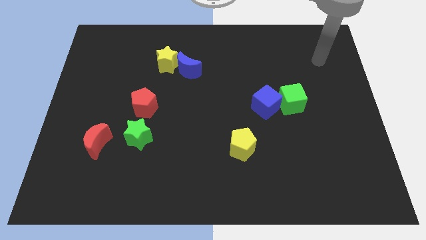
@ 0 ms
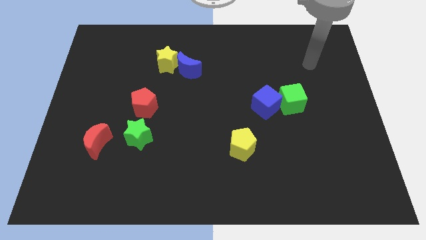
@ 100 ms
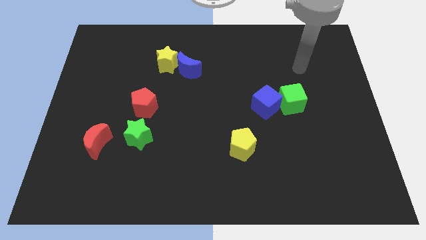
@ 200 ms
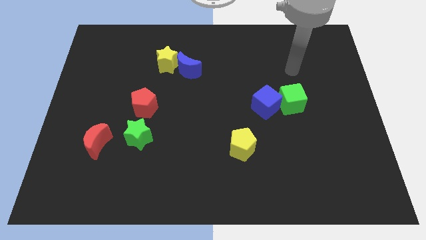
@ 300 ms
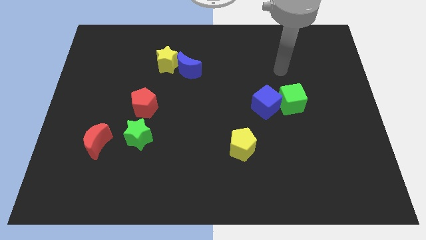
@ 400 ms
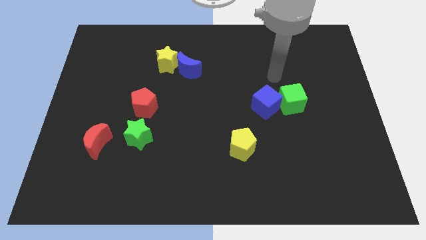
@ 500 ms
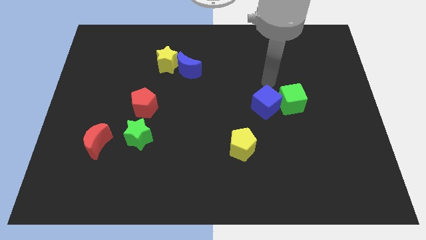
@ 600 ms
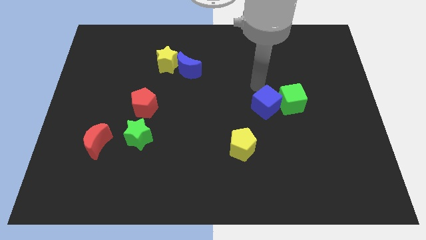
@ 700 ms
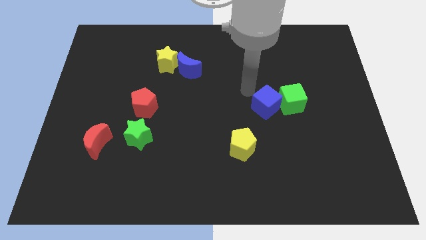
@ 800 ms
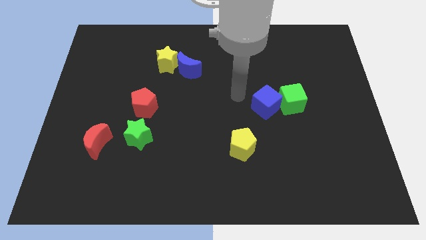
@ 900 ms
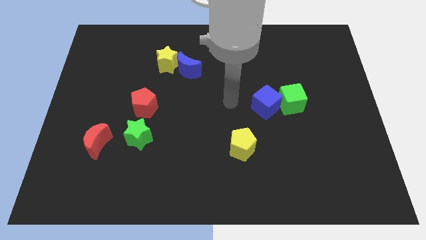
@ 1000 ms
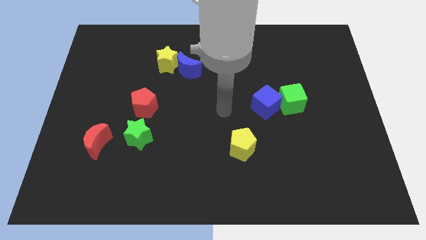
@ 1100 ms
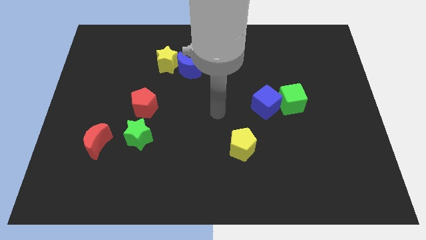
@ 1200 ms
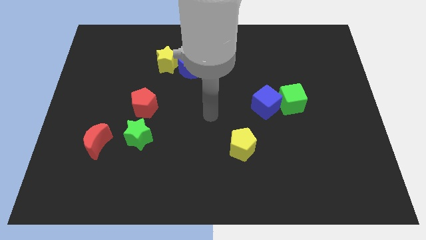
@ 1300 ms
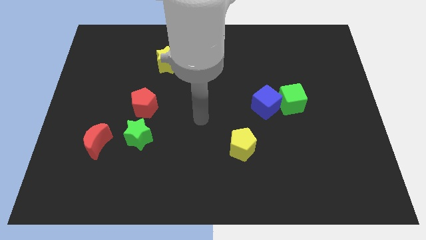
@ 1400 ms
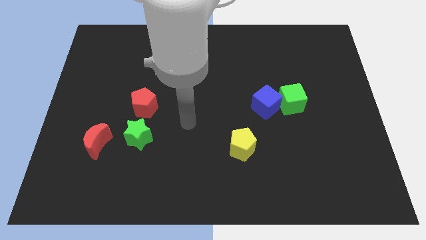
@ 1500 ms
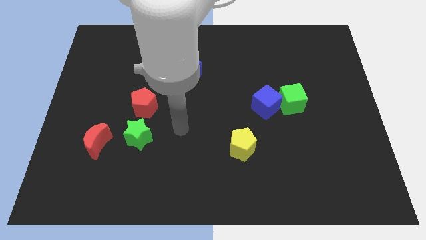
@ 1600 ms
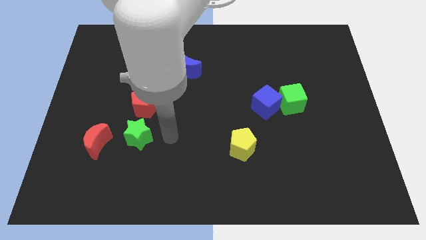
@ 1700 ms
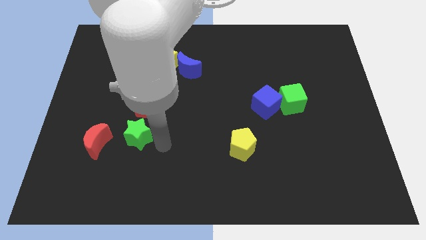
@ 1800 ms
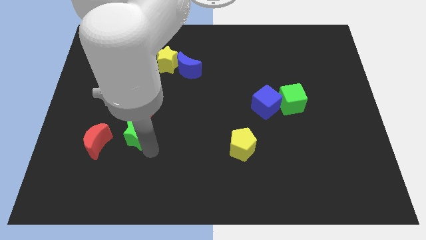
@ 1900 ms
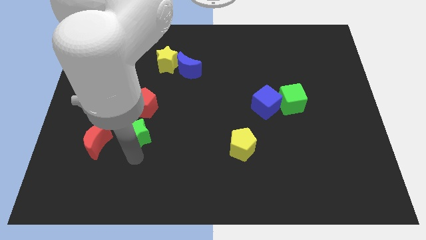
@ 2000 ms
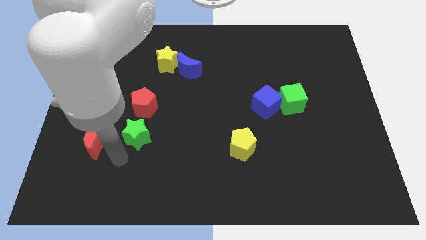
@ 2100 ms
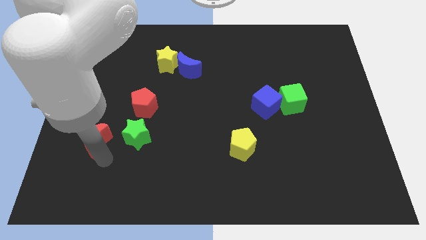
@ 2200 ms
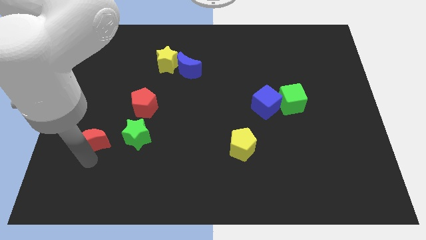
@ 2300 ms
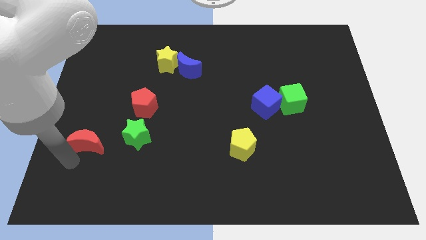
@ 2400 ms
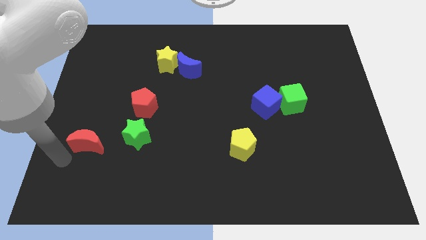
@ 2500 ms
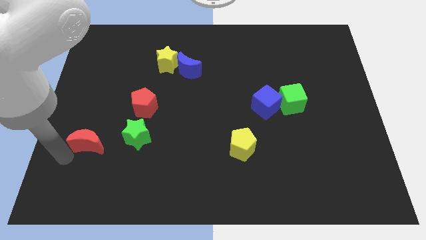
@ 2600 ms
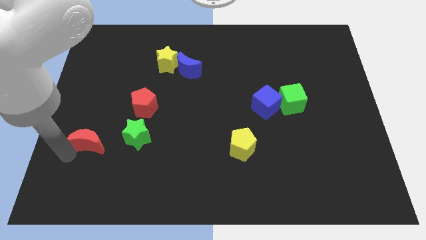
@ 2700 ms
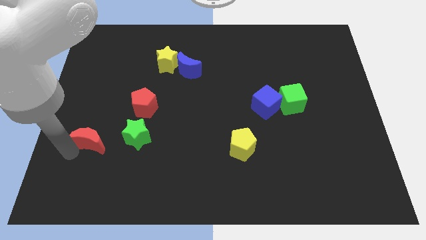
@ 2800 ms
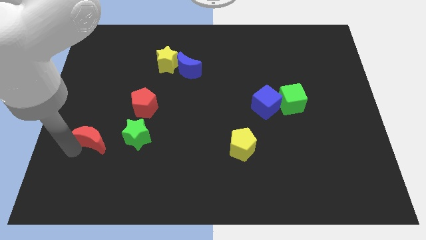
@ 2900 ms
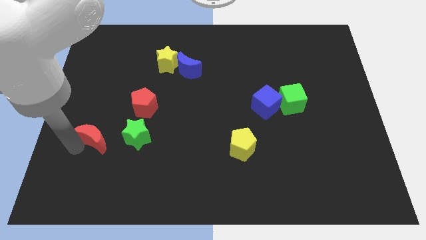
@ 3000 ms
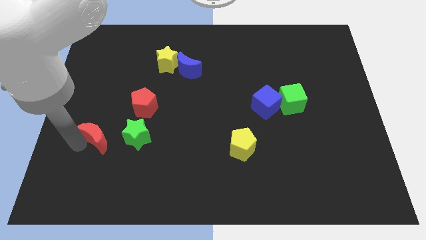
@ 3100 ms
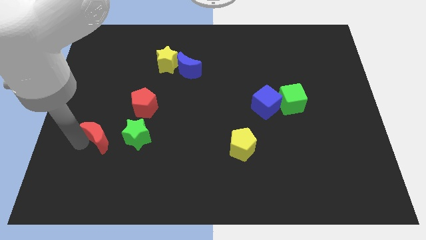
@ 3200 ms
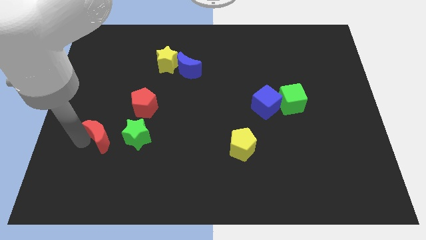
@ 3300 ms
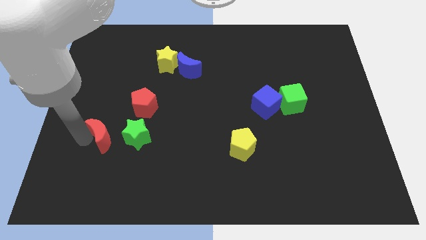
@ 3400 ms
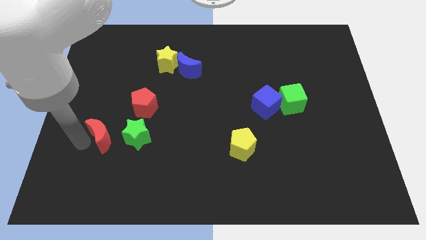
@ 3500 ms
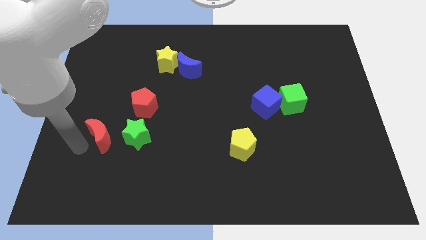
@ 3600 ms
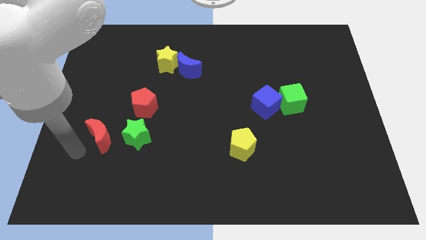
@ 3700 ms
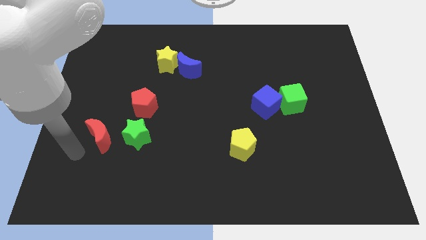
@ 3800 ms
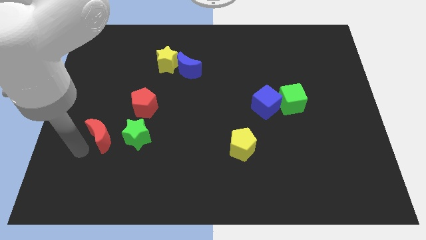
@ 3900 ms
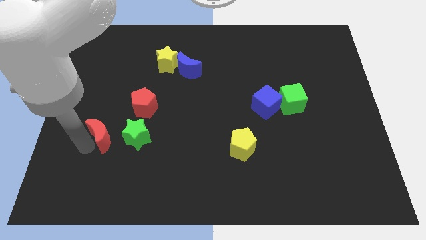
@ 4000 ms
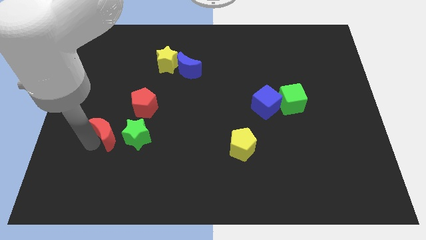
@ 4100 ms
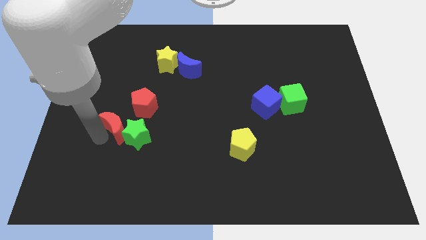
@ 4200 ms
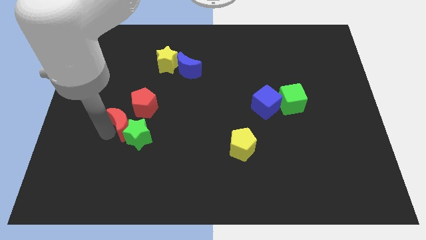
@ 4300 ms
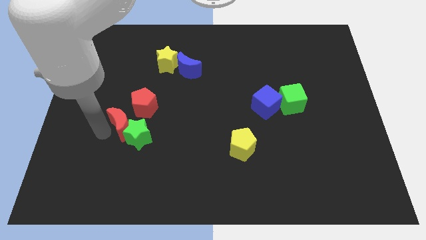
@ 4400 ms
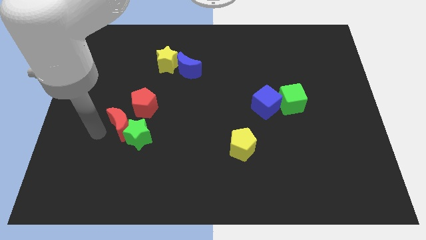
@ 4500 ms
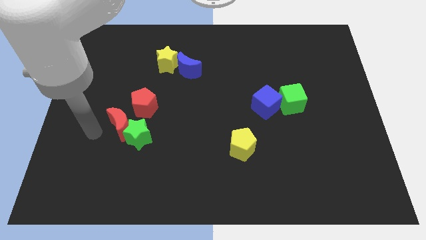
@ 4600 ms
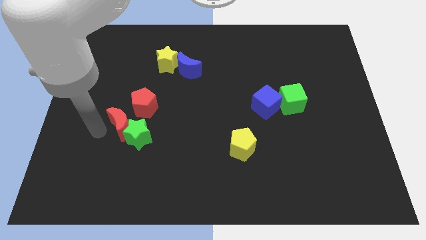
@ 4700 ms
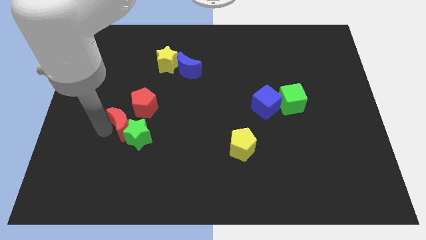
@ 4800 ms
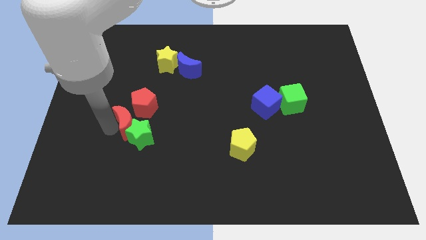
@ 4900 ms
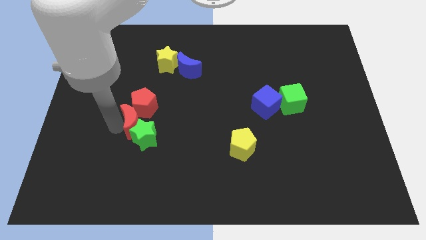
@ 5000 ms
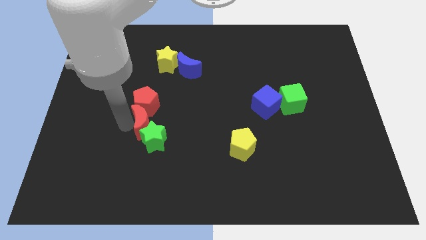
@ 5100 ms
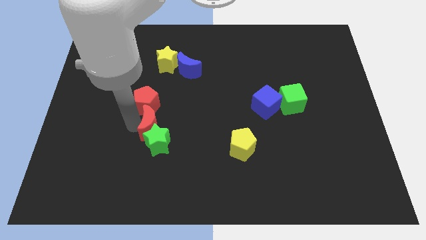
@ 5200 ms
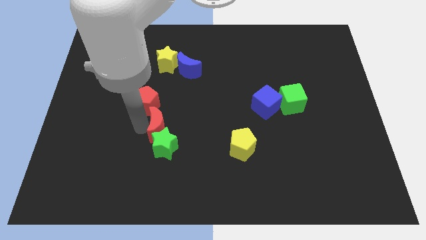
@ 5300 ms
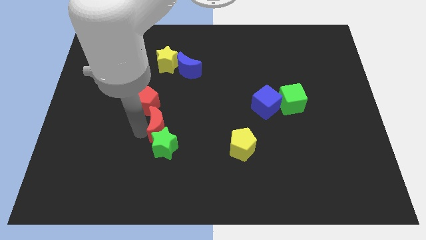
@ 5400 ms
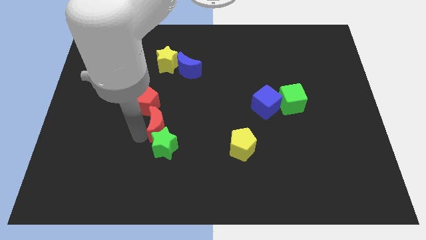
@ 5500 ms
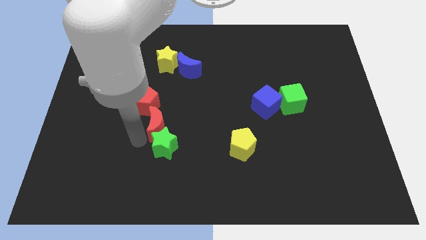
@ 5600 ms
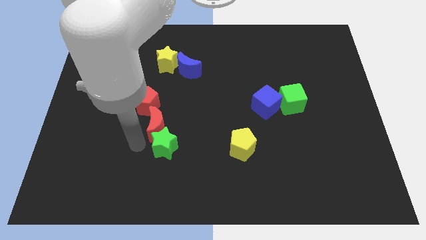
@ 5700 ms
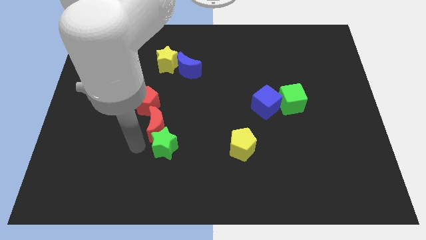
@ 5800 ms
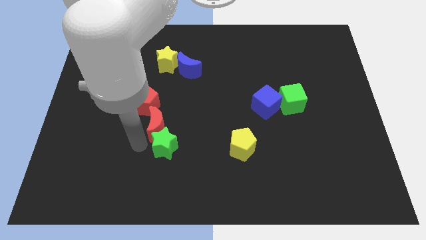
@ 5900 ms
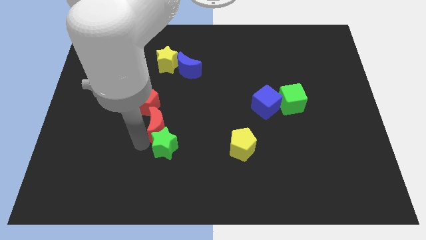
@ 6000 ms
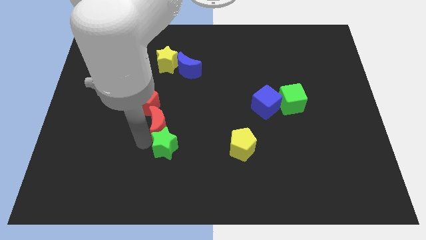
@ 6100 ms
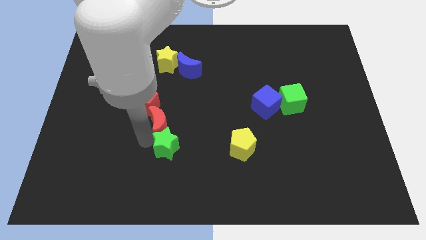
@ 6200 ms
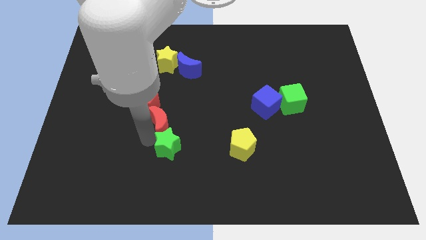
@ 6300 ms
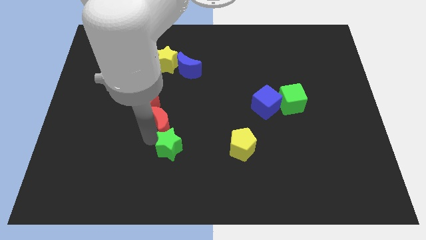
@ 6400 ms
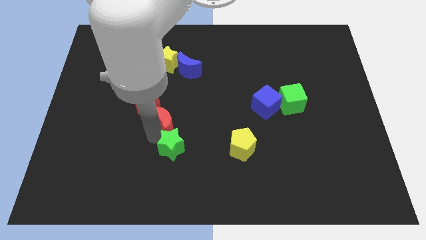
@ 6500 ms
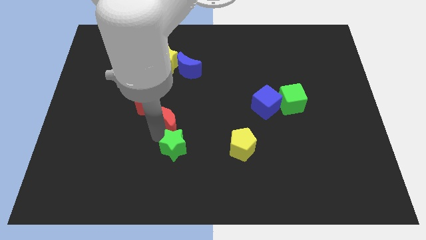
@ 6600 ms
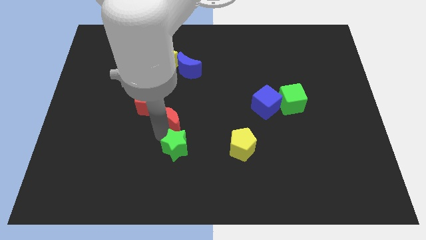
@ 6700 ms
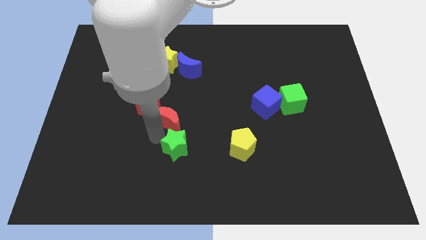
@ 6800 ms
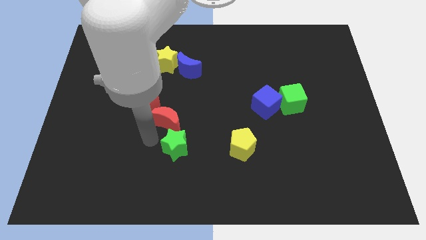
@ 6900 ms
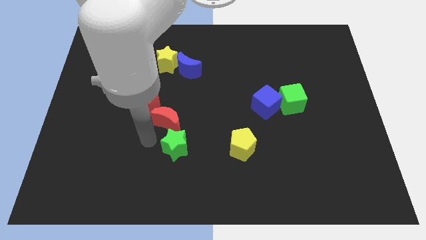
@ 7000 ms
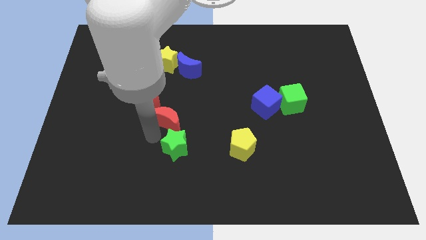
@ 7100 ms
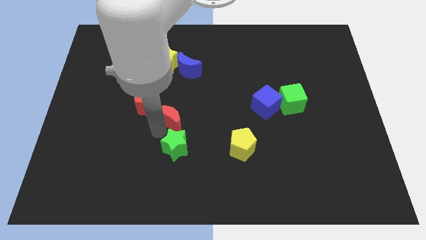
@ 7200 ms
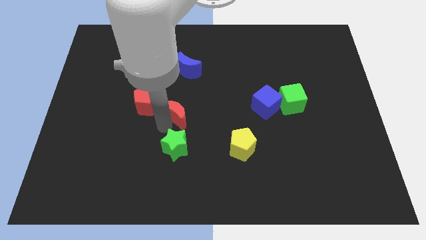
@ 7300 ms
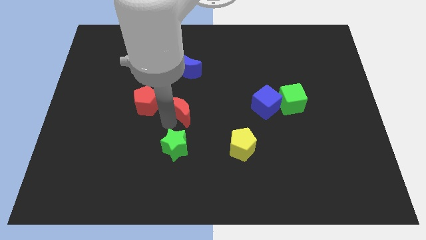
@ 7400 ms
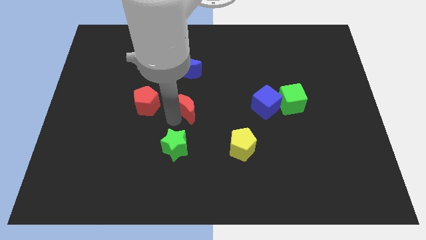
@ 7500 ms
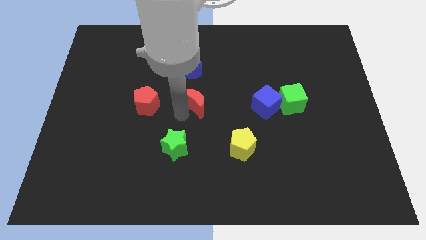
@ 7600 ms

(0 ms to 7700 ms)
move the red moon diagonally up and to the right

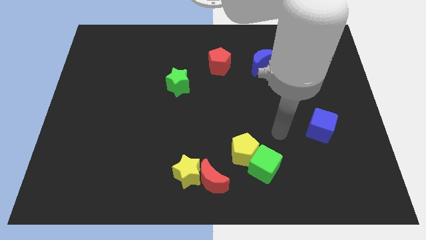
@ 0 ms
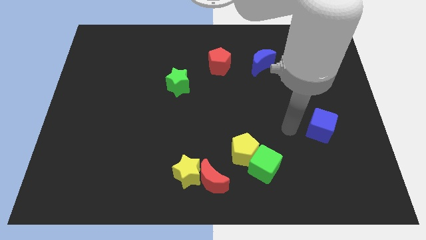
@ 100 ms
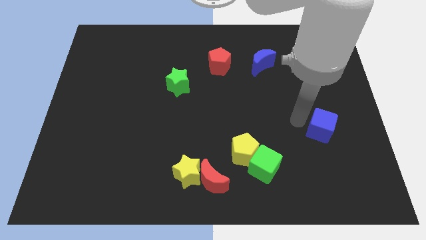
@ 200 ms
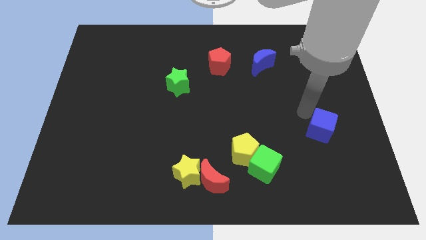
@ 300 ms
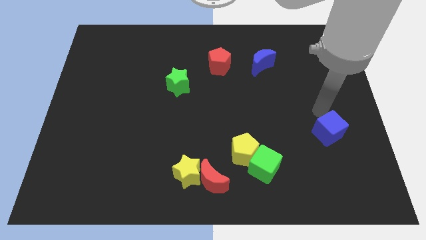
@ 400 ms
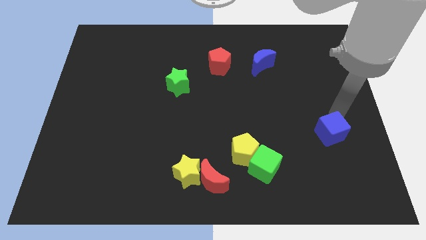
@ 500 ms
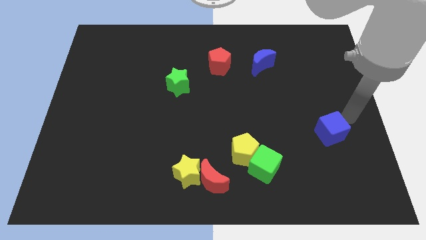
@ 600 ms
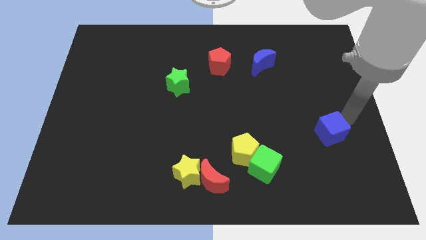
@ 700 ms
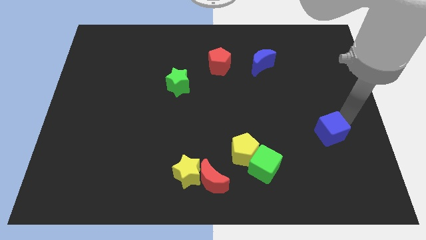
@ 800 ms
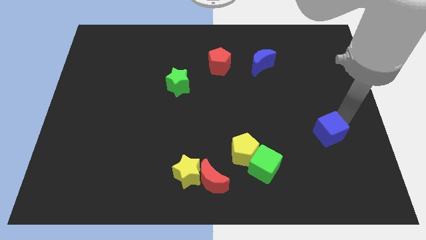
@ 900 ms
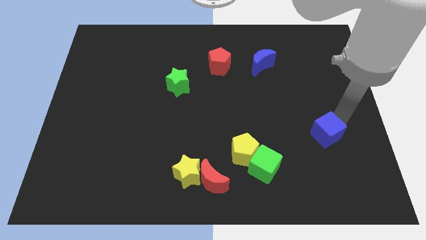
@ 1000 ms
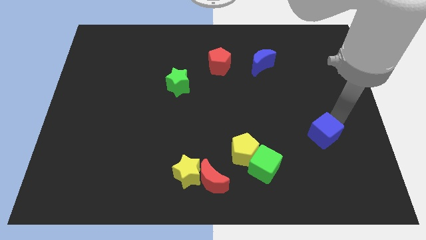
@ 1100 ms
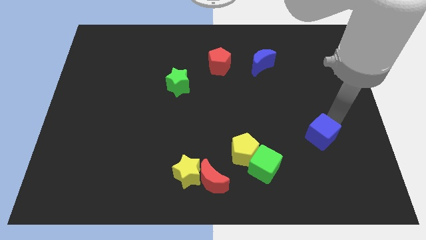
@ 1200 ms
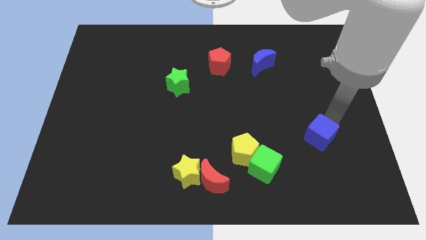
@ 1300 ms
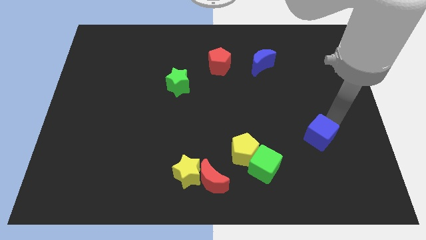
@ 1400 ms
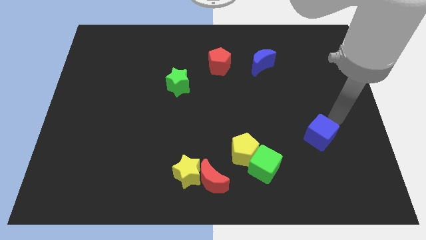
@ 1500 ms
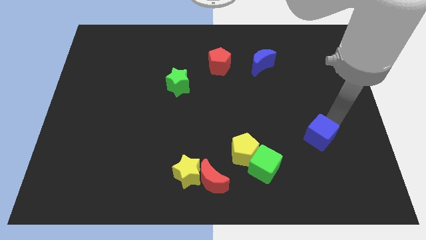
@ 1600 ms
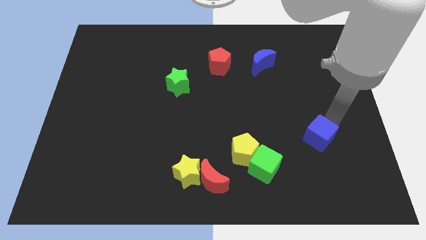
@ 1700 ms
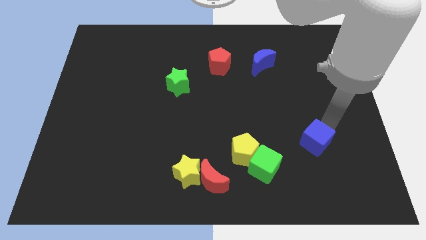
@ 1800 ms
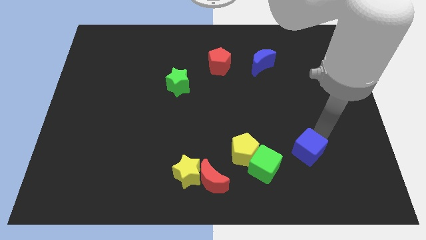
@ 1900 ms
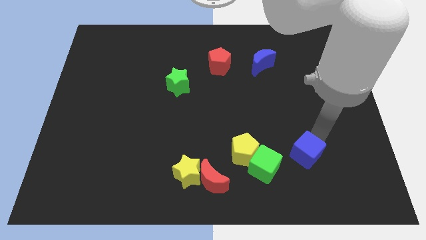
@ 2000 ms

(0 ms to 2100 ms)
push the blue cube down and then to the left a little bit
